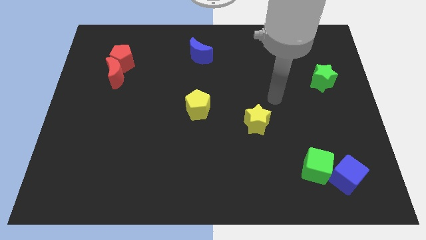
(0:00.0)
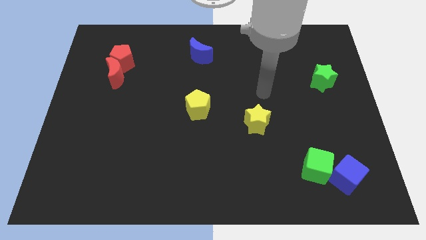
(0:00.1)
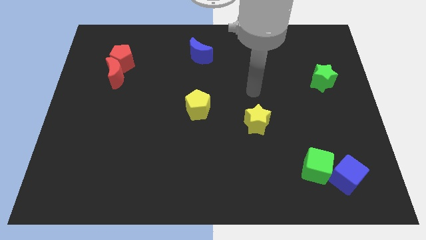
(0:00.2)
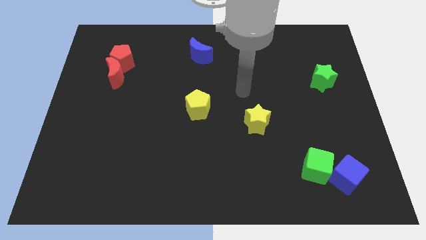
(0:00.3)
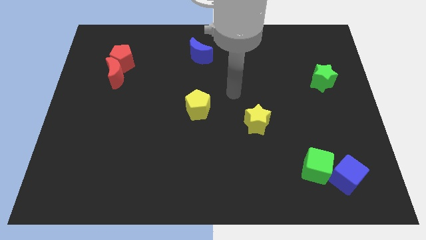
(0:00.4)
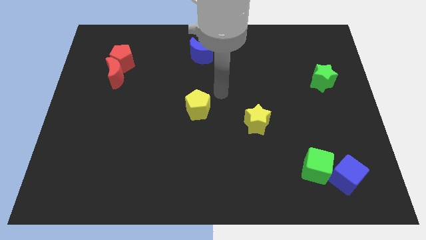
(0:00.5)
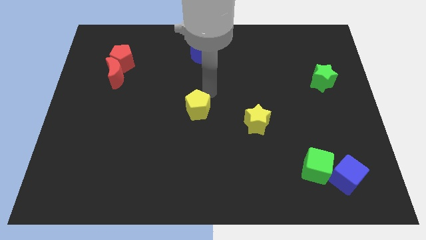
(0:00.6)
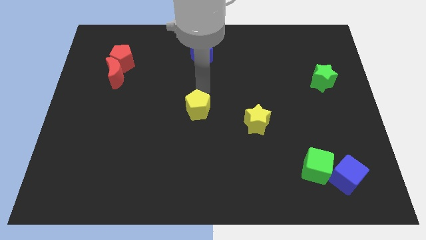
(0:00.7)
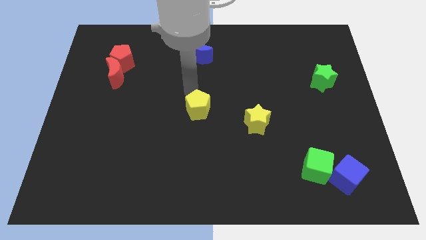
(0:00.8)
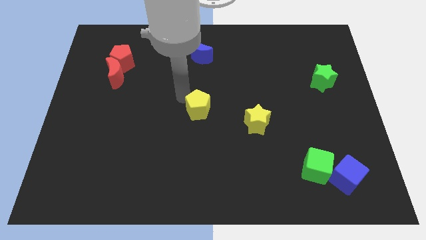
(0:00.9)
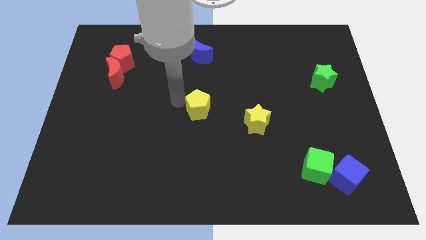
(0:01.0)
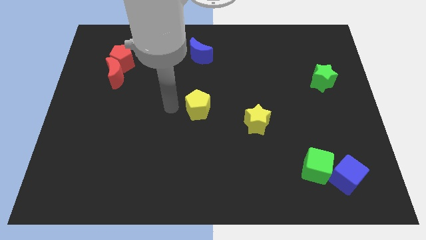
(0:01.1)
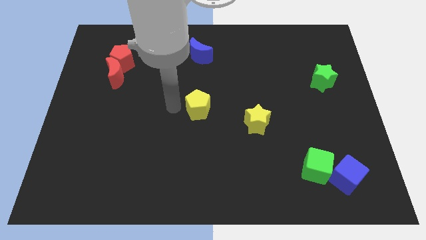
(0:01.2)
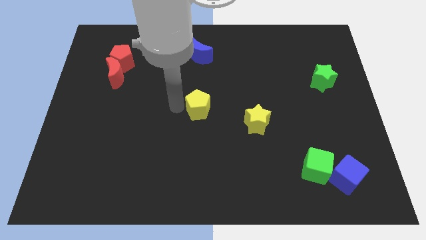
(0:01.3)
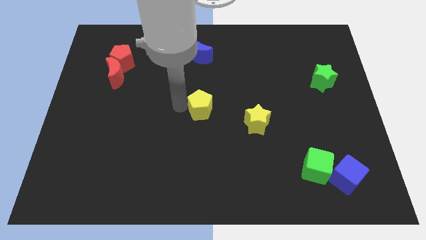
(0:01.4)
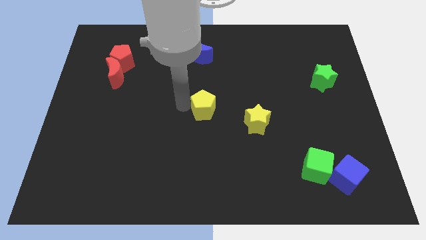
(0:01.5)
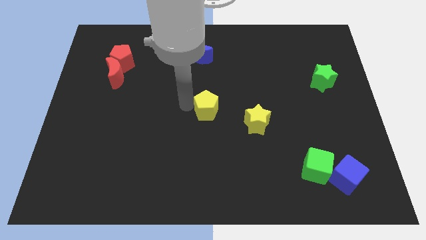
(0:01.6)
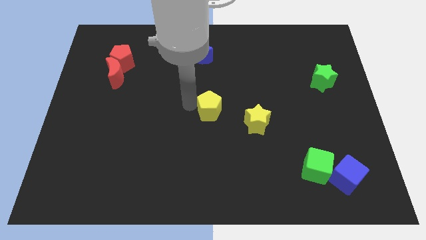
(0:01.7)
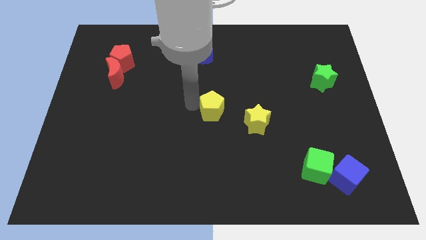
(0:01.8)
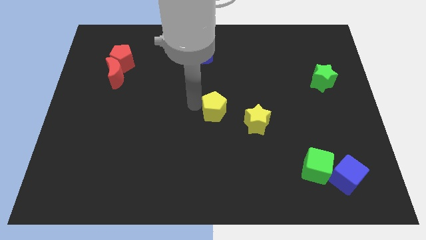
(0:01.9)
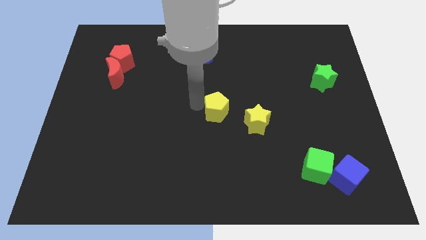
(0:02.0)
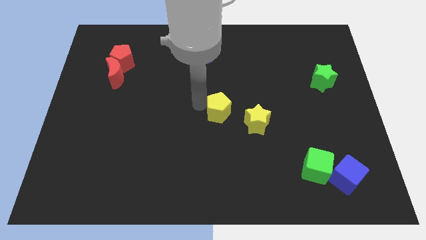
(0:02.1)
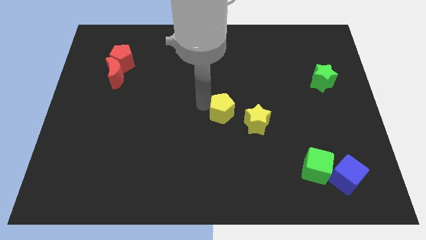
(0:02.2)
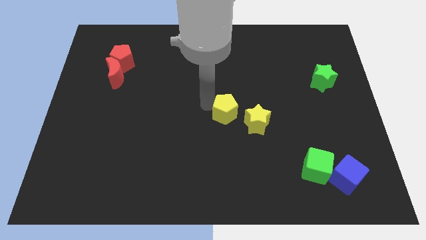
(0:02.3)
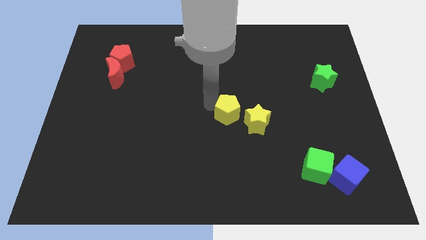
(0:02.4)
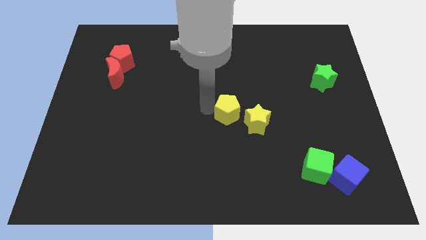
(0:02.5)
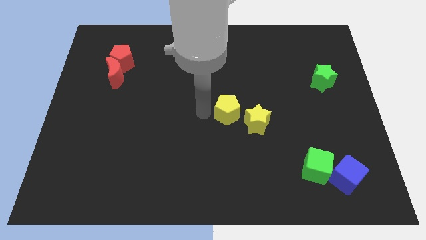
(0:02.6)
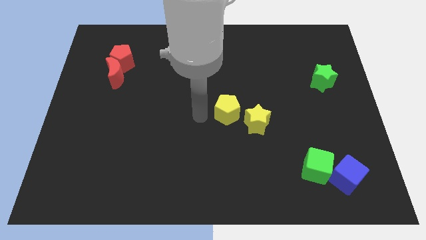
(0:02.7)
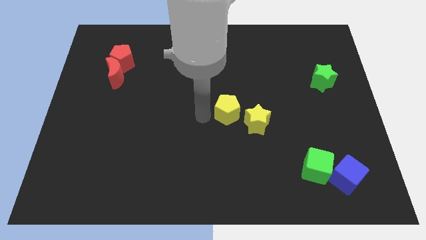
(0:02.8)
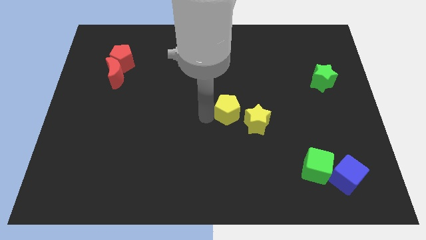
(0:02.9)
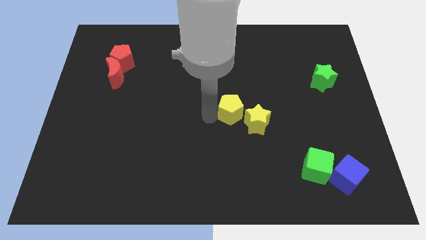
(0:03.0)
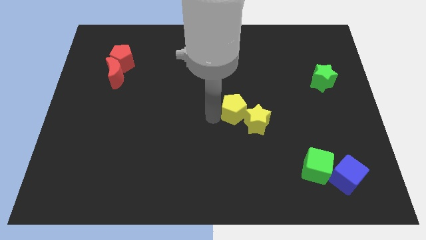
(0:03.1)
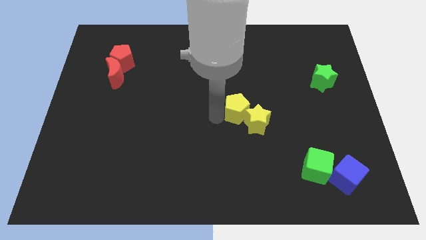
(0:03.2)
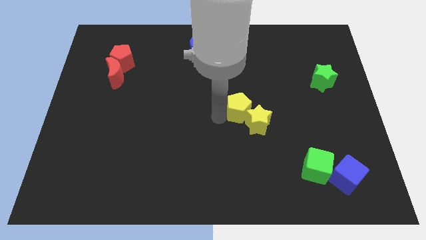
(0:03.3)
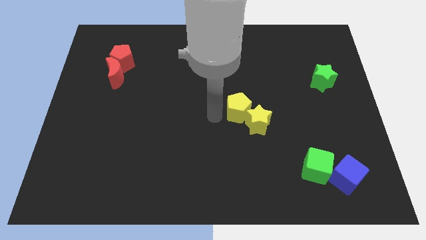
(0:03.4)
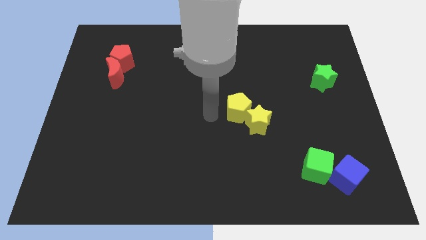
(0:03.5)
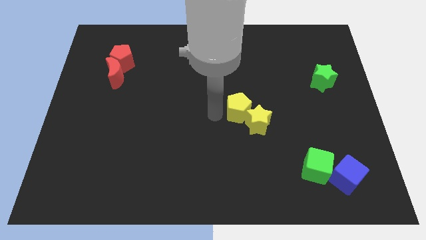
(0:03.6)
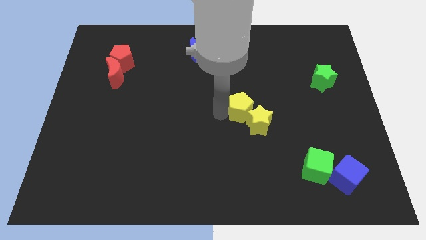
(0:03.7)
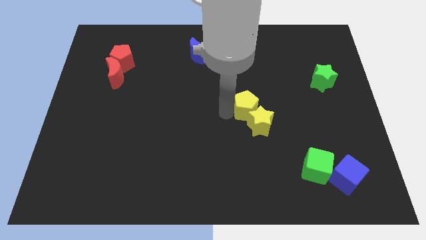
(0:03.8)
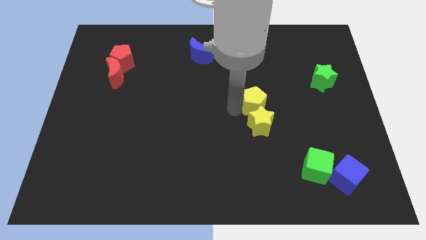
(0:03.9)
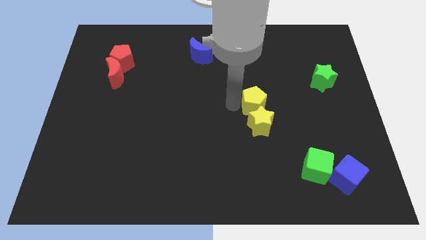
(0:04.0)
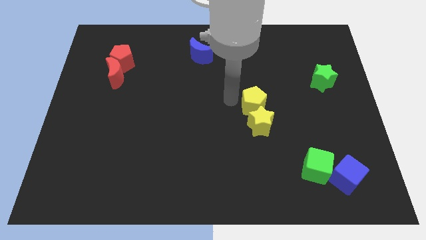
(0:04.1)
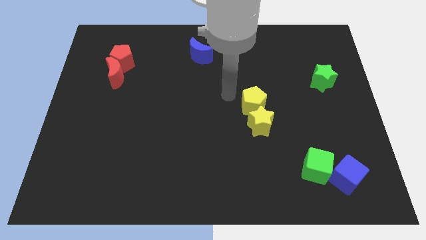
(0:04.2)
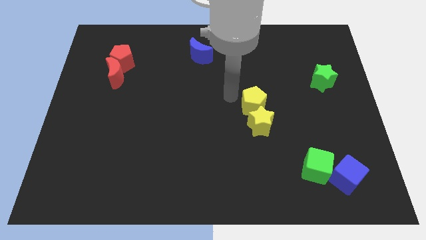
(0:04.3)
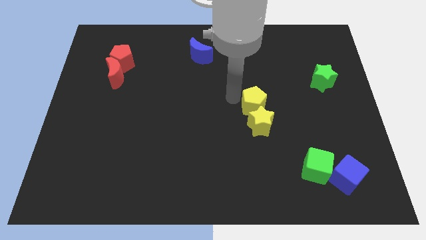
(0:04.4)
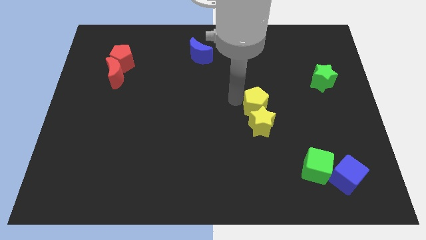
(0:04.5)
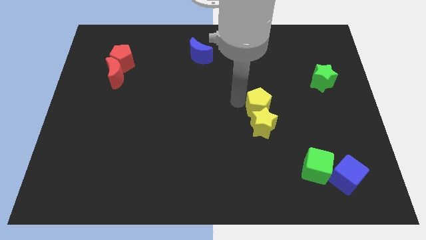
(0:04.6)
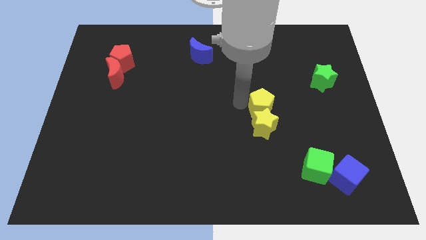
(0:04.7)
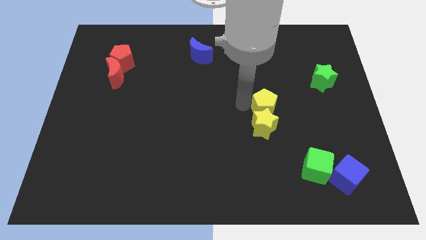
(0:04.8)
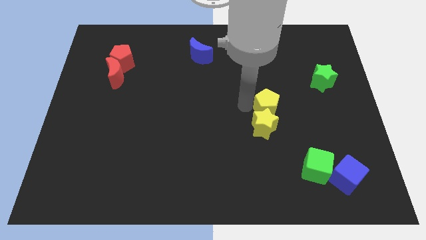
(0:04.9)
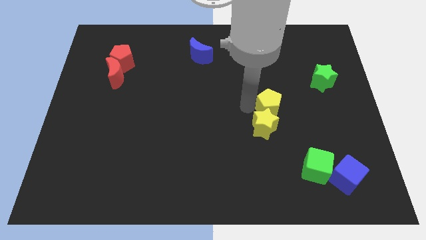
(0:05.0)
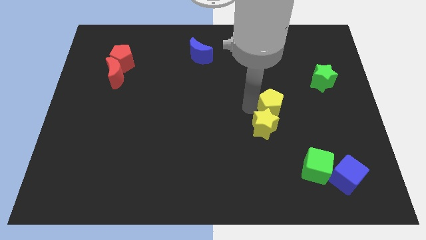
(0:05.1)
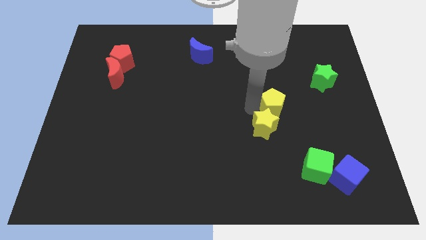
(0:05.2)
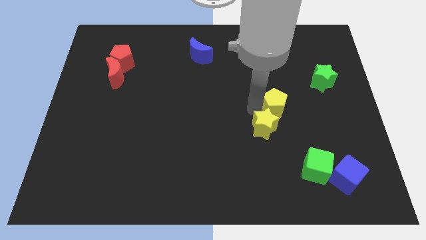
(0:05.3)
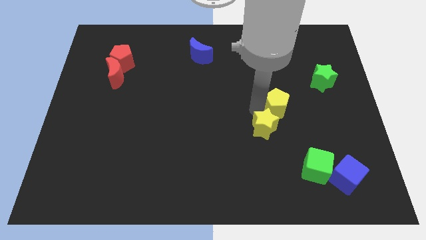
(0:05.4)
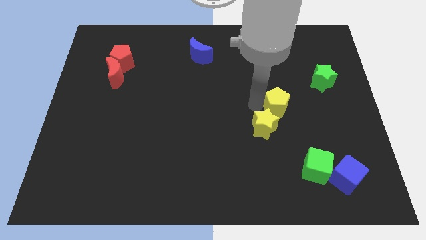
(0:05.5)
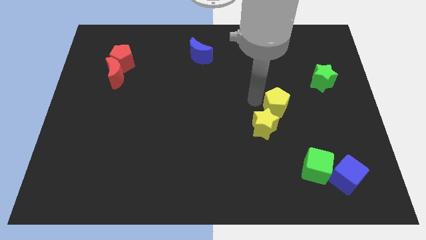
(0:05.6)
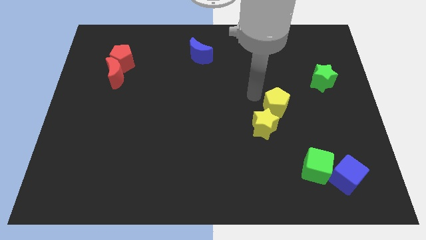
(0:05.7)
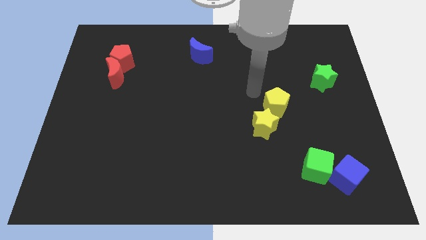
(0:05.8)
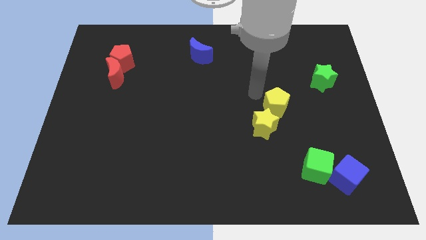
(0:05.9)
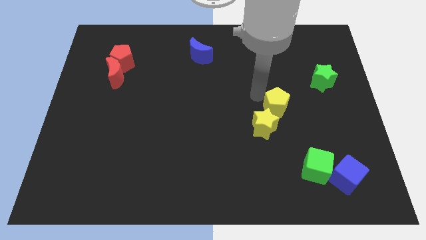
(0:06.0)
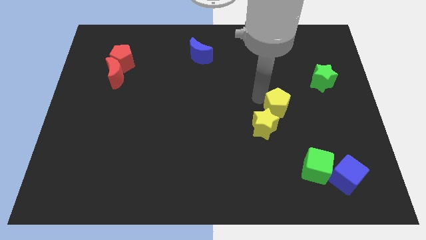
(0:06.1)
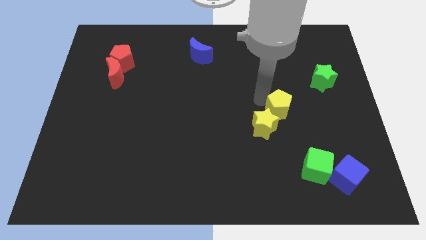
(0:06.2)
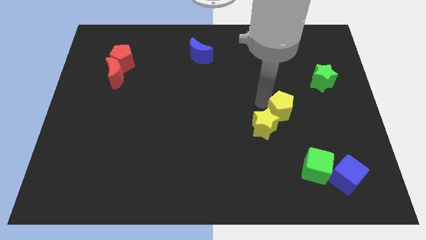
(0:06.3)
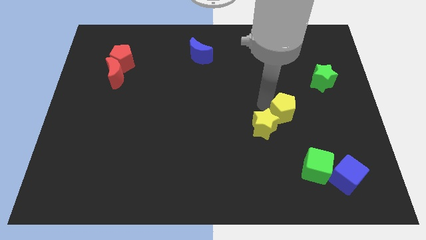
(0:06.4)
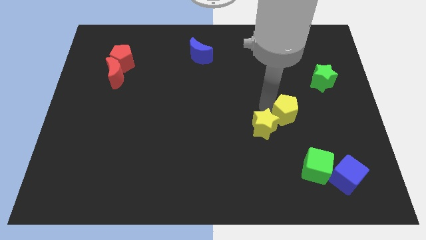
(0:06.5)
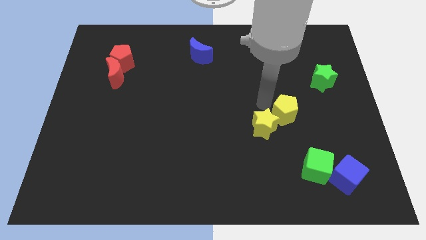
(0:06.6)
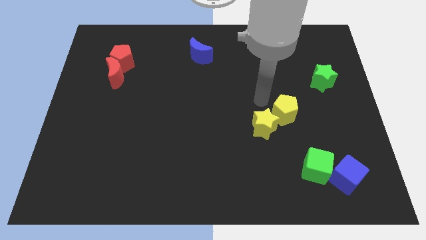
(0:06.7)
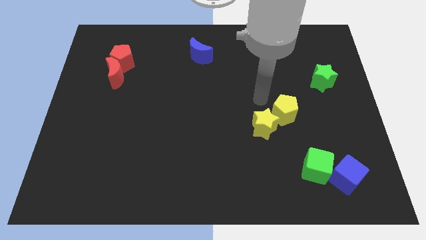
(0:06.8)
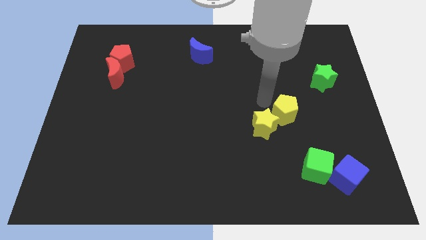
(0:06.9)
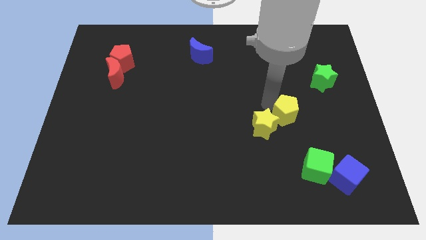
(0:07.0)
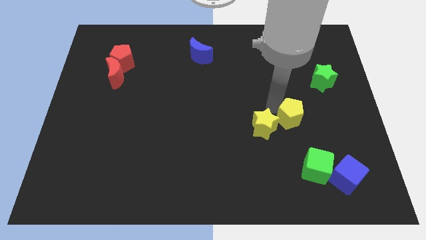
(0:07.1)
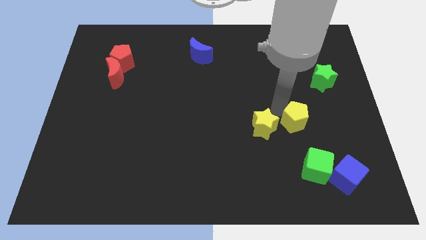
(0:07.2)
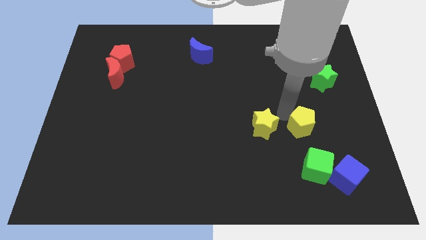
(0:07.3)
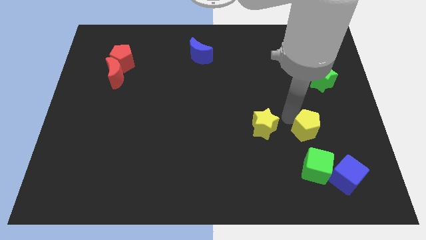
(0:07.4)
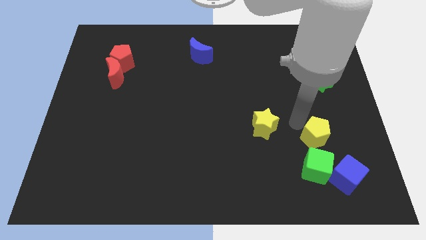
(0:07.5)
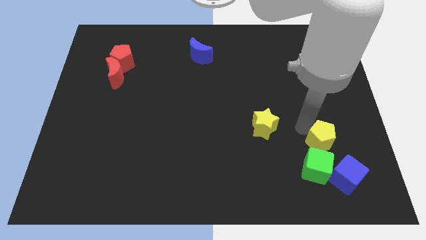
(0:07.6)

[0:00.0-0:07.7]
slide the yellow pentagon diagonally up and to the right of the green cube

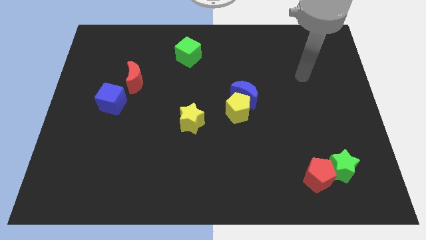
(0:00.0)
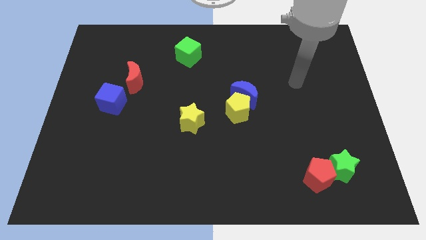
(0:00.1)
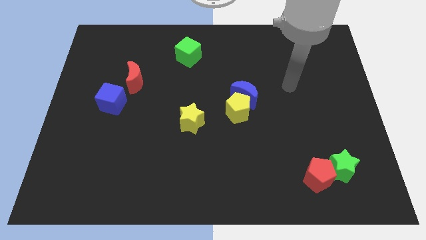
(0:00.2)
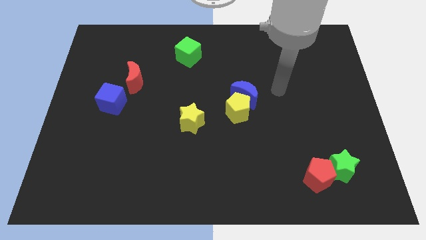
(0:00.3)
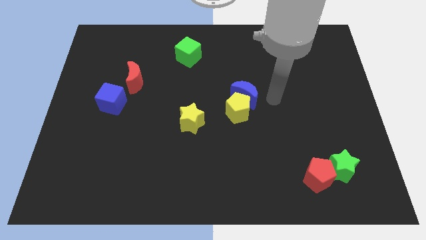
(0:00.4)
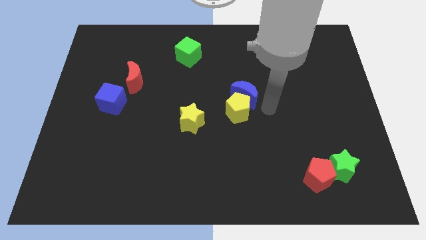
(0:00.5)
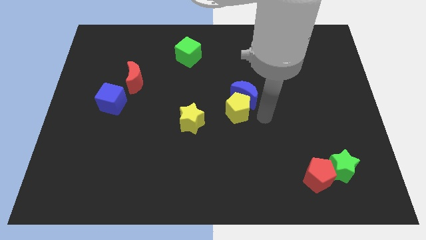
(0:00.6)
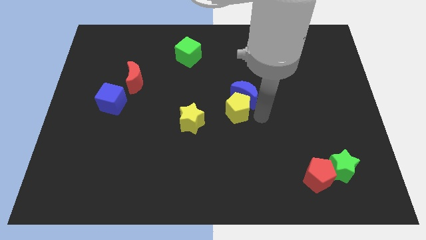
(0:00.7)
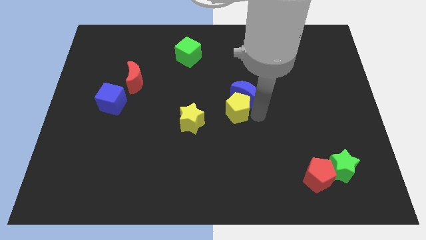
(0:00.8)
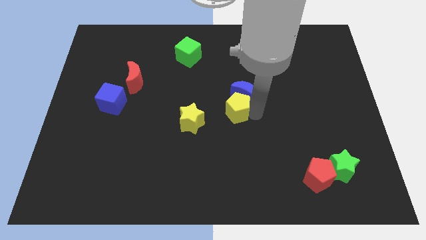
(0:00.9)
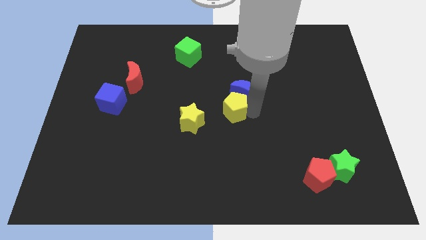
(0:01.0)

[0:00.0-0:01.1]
put the yellow pentagon to the top right side of the yellow star
